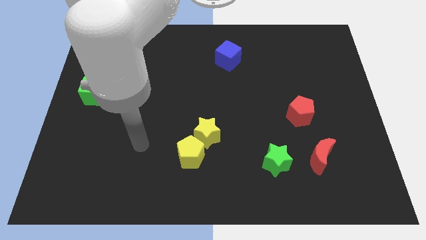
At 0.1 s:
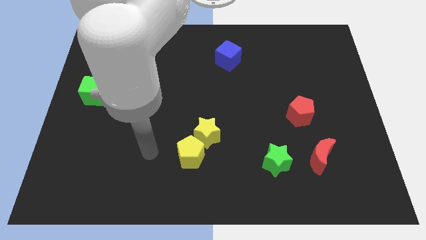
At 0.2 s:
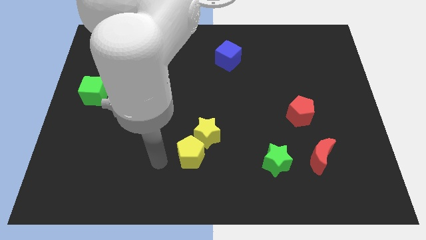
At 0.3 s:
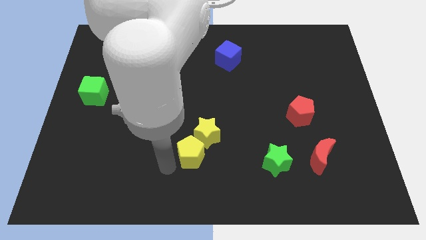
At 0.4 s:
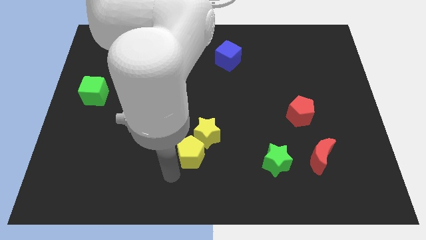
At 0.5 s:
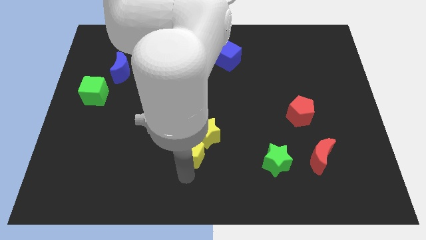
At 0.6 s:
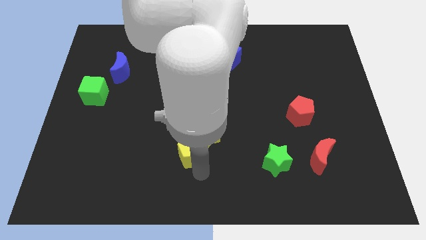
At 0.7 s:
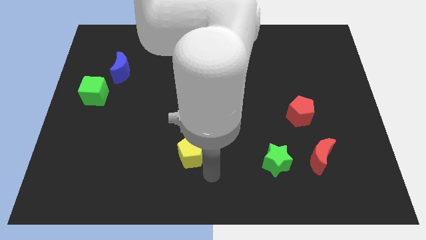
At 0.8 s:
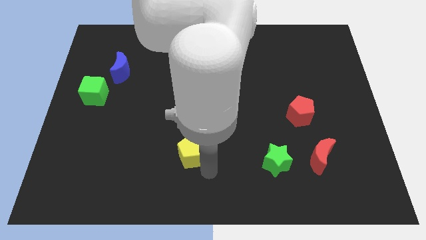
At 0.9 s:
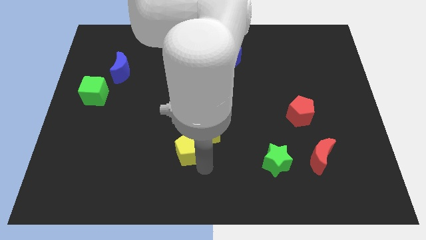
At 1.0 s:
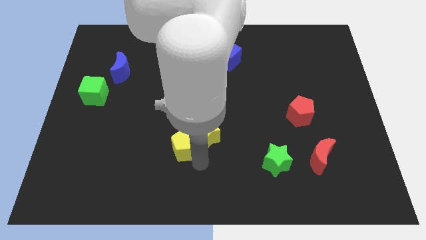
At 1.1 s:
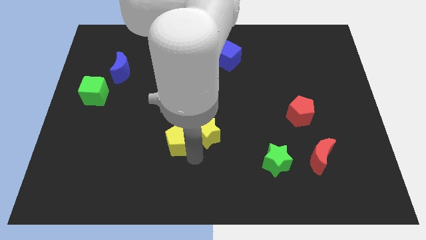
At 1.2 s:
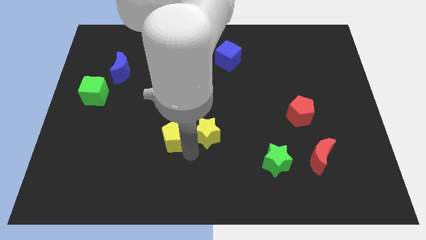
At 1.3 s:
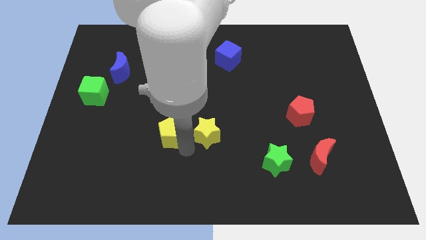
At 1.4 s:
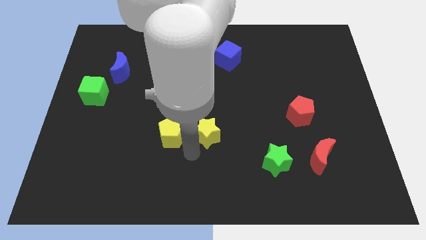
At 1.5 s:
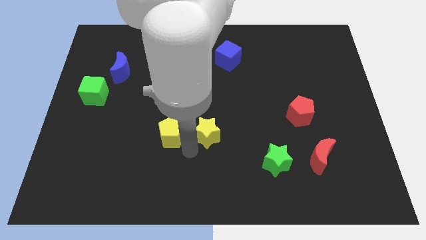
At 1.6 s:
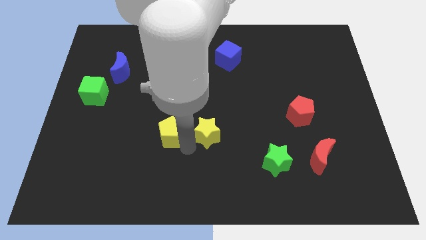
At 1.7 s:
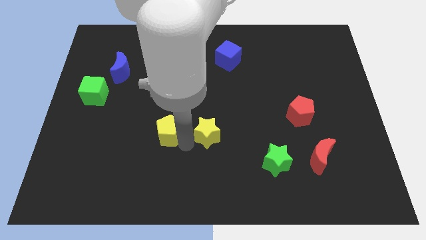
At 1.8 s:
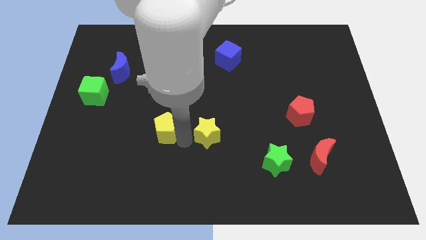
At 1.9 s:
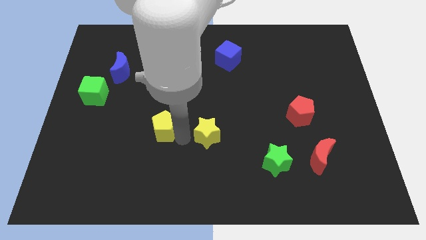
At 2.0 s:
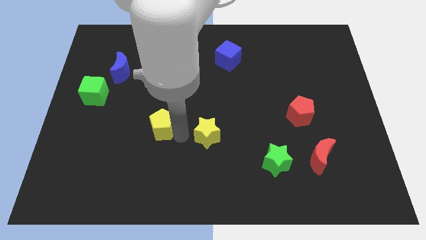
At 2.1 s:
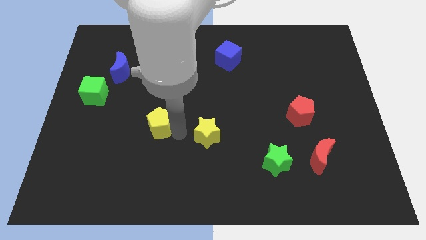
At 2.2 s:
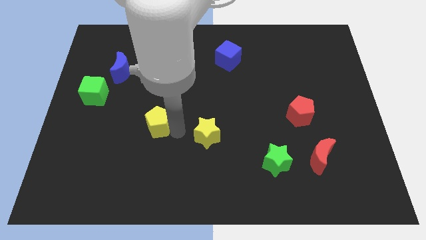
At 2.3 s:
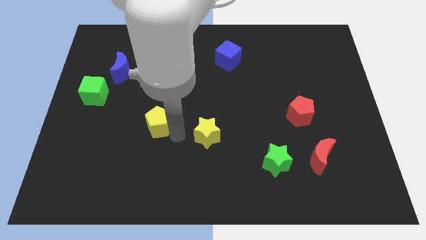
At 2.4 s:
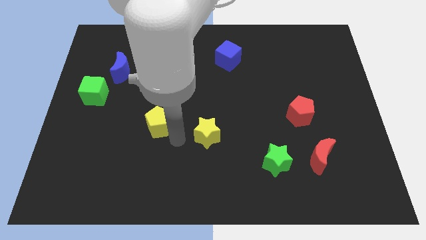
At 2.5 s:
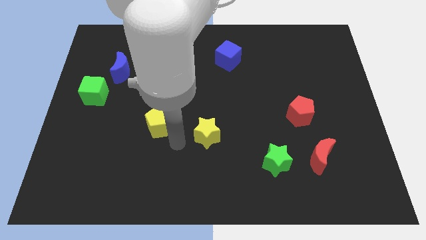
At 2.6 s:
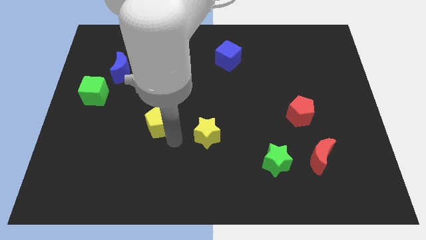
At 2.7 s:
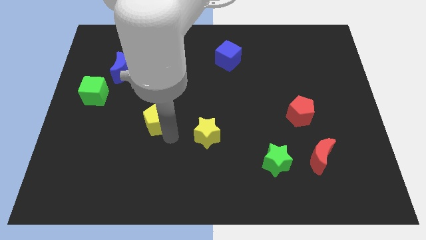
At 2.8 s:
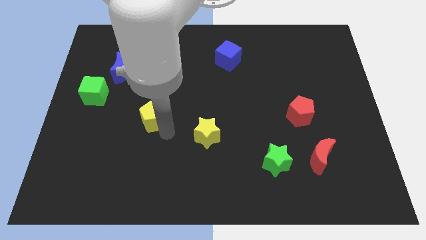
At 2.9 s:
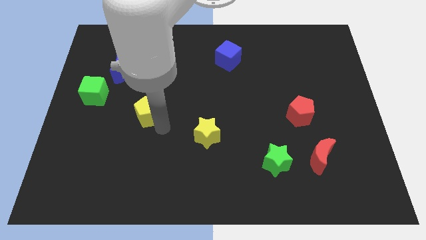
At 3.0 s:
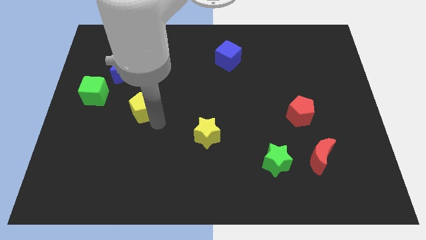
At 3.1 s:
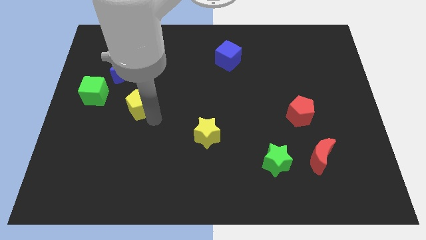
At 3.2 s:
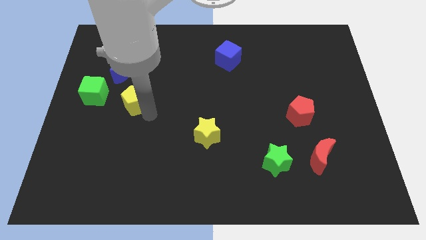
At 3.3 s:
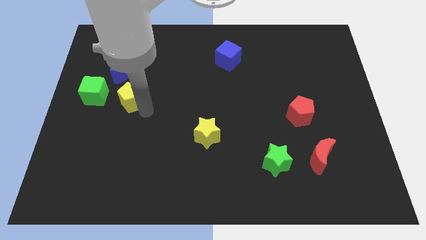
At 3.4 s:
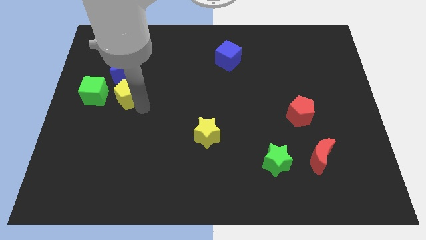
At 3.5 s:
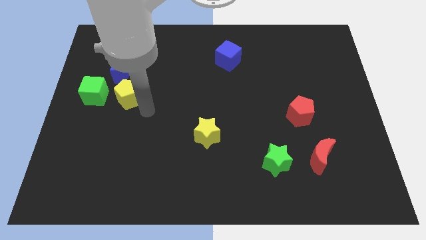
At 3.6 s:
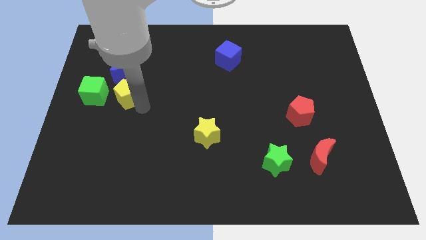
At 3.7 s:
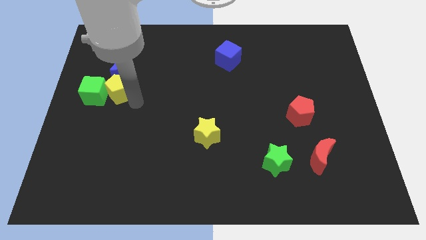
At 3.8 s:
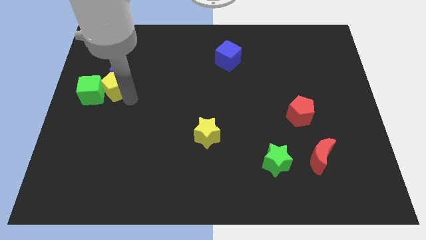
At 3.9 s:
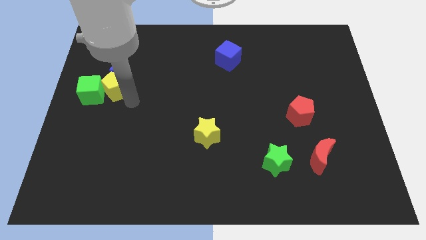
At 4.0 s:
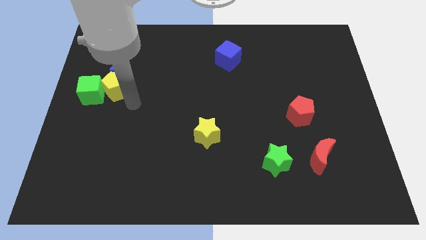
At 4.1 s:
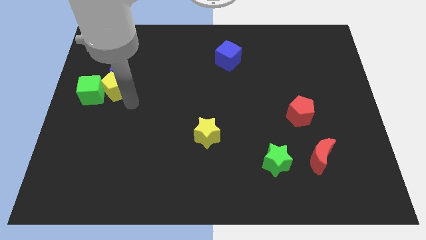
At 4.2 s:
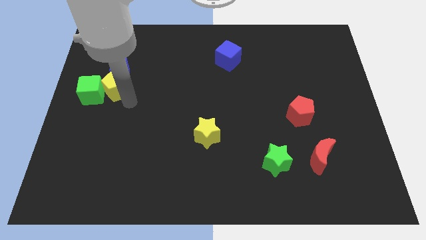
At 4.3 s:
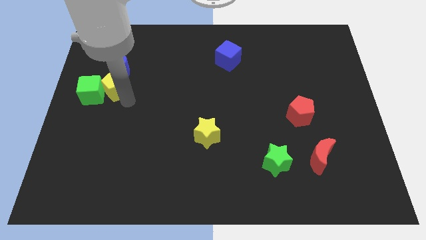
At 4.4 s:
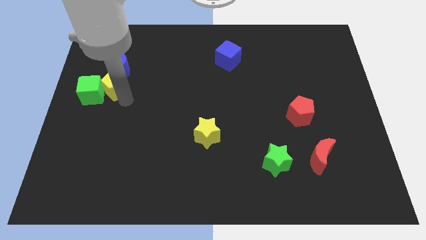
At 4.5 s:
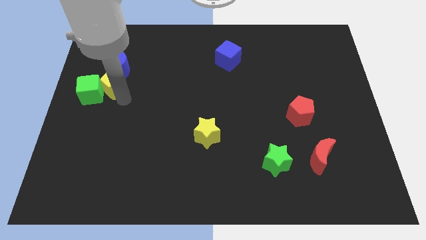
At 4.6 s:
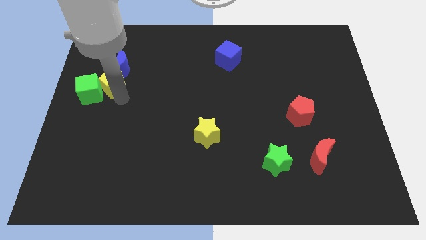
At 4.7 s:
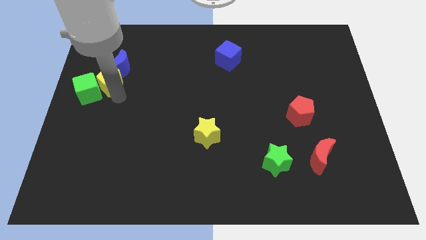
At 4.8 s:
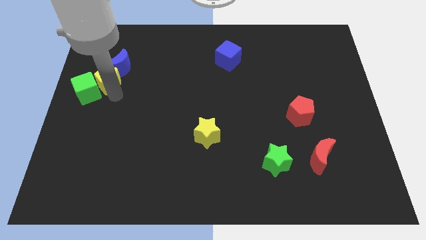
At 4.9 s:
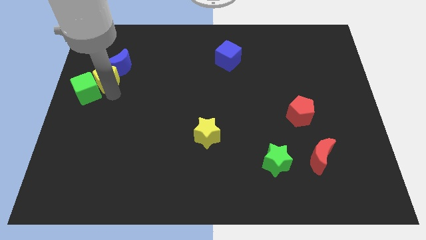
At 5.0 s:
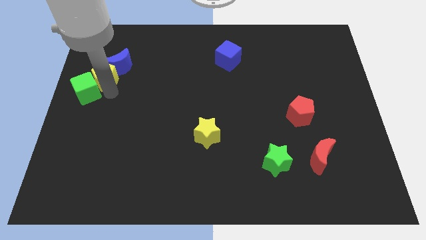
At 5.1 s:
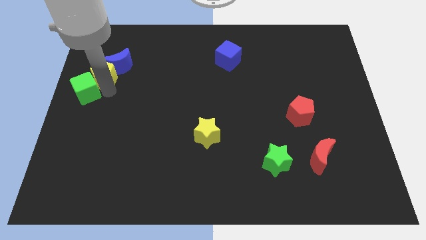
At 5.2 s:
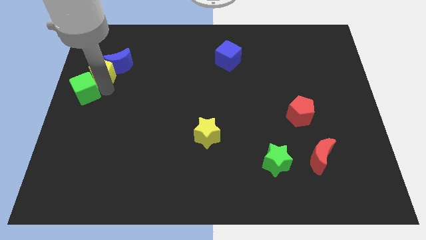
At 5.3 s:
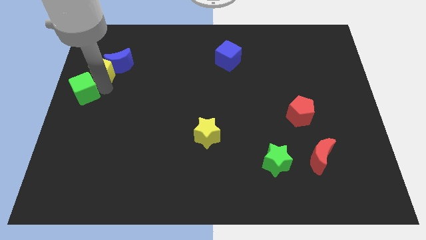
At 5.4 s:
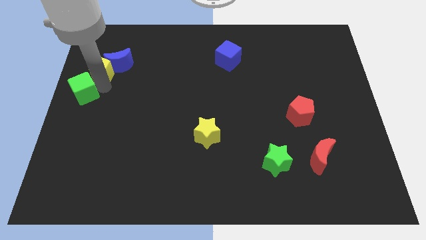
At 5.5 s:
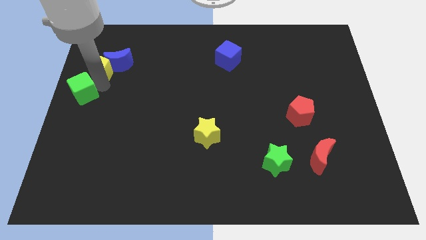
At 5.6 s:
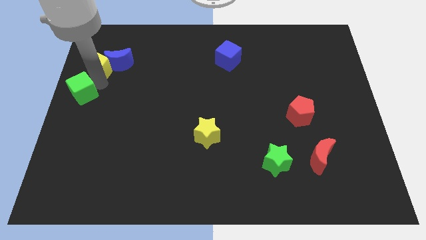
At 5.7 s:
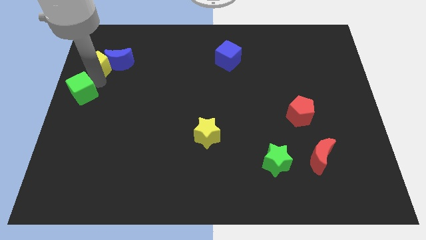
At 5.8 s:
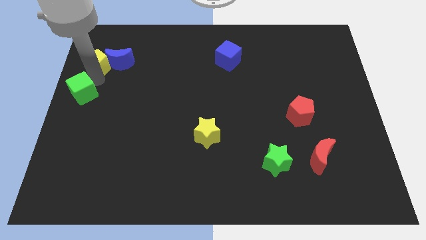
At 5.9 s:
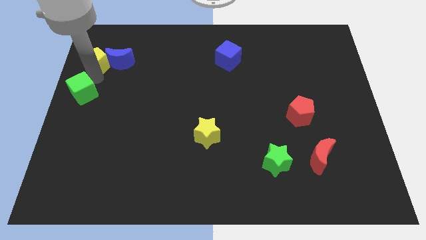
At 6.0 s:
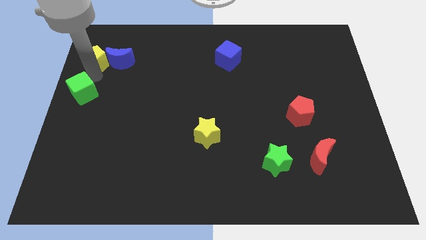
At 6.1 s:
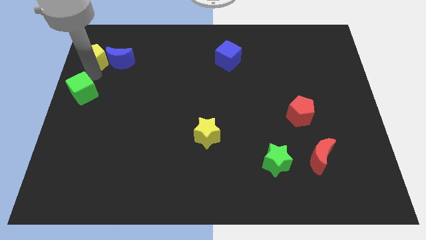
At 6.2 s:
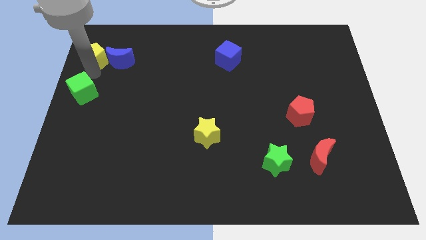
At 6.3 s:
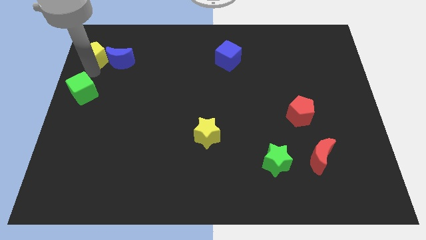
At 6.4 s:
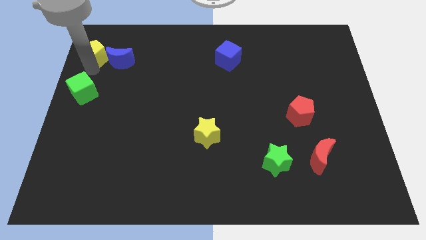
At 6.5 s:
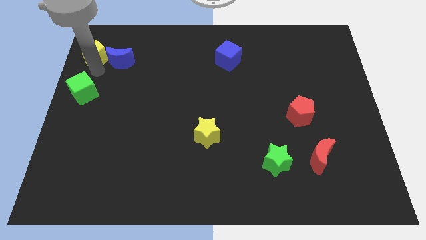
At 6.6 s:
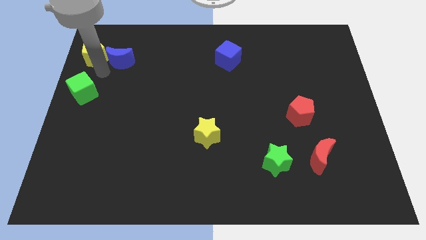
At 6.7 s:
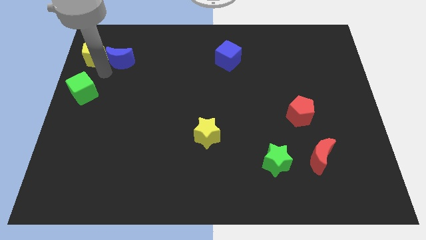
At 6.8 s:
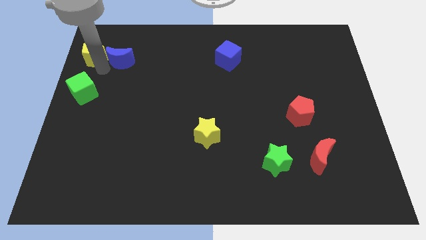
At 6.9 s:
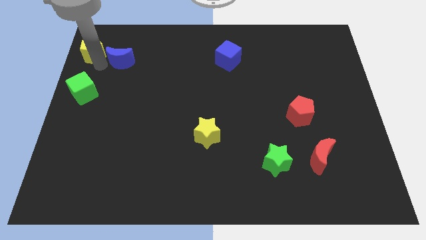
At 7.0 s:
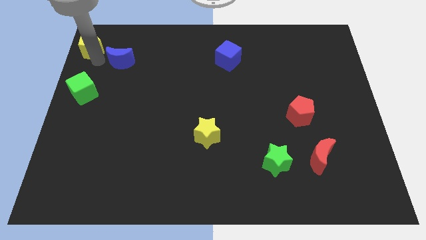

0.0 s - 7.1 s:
move the yellow pentagon to the top left corner
